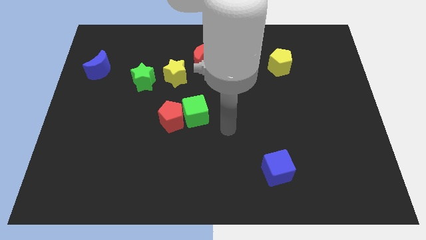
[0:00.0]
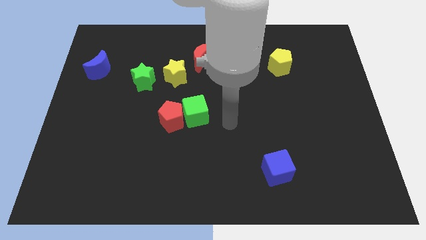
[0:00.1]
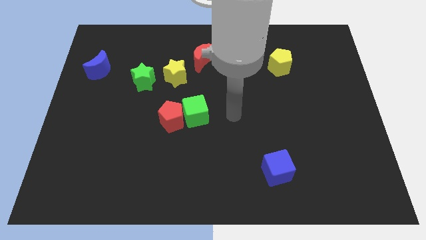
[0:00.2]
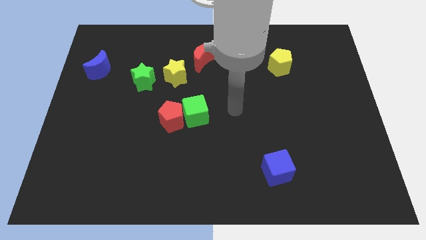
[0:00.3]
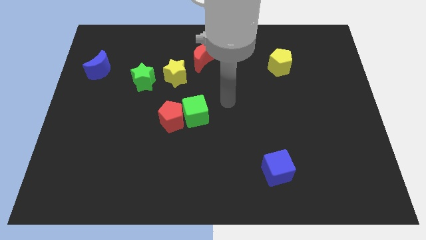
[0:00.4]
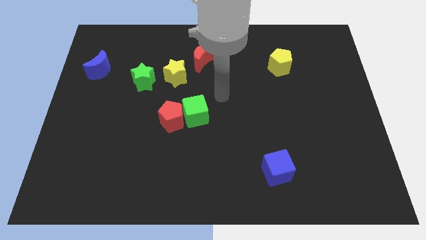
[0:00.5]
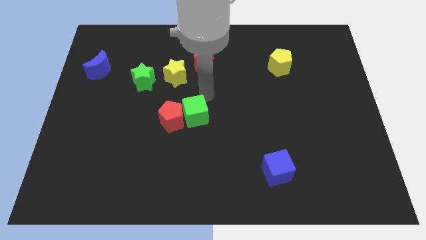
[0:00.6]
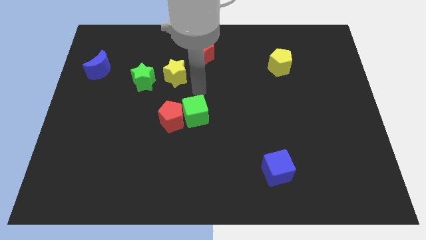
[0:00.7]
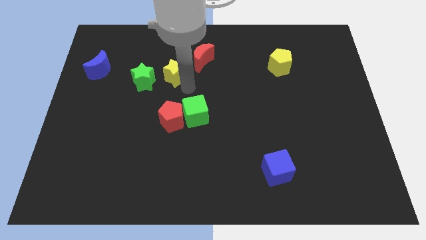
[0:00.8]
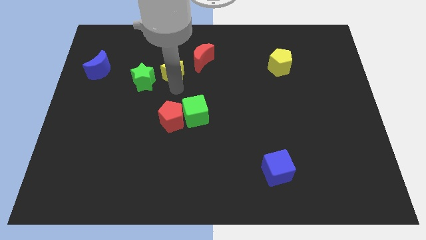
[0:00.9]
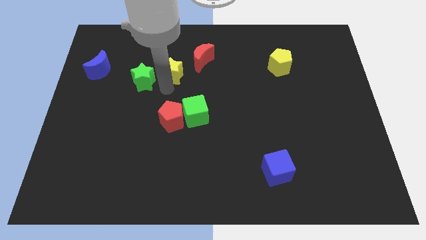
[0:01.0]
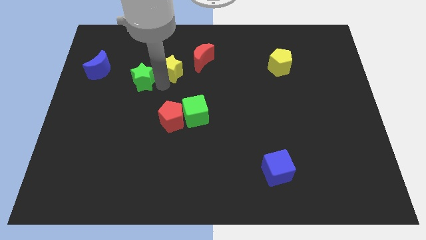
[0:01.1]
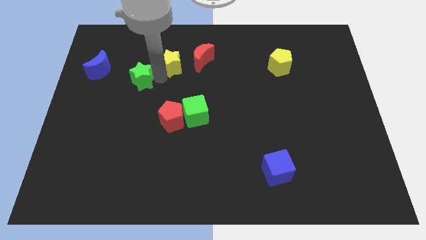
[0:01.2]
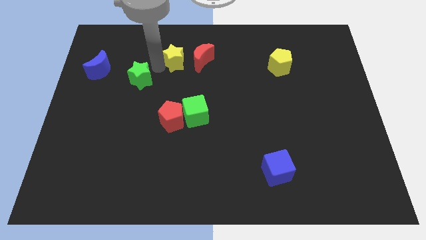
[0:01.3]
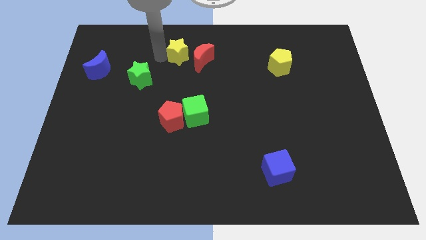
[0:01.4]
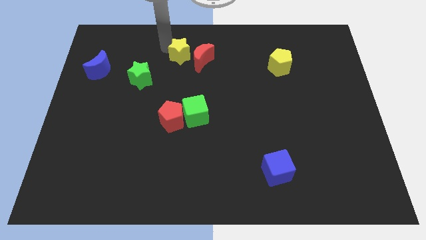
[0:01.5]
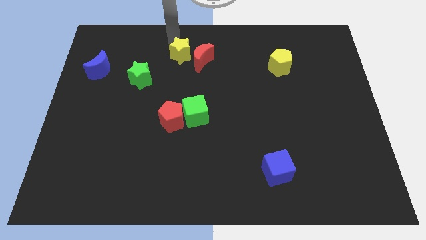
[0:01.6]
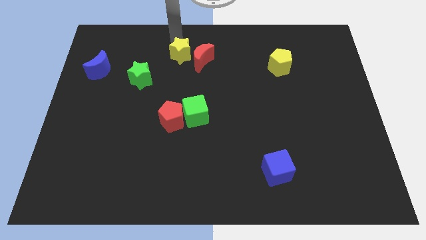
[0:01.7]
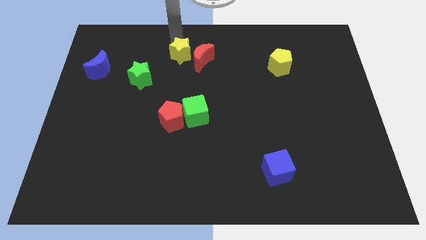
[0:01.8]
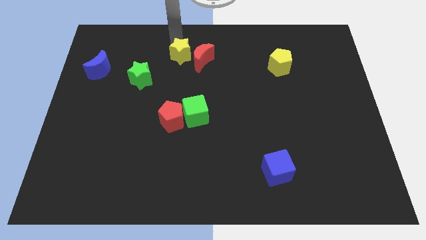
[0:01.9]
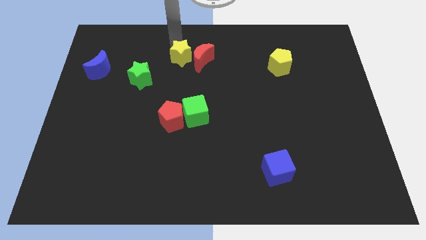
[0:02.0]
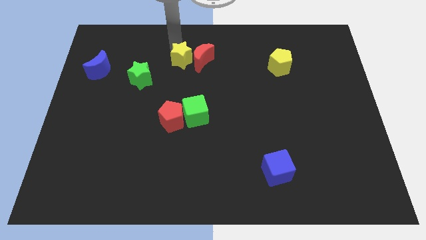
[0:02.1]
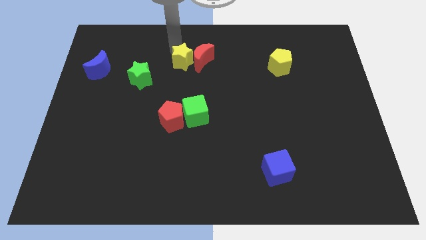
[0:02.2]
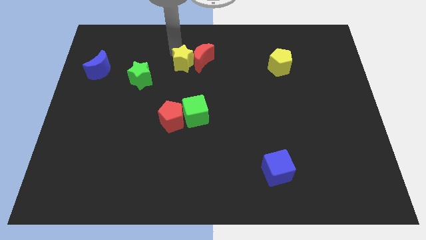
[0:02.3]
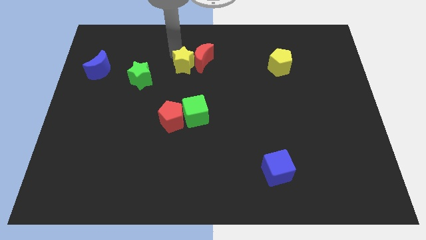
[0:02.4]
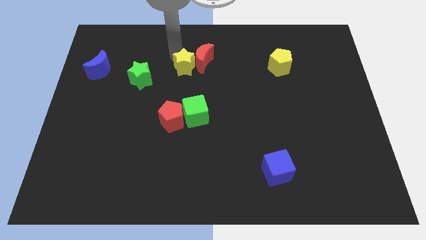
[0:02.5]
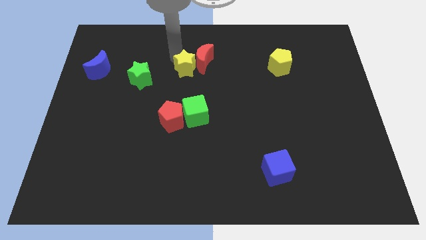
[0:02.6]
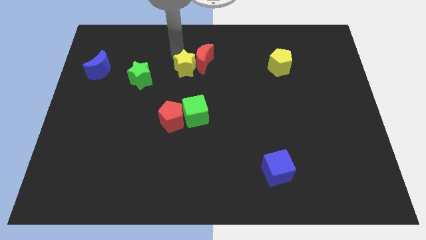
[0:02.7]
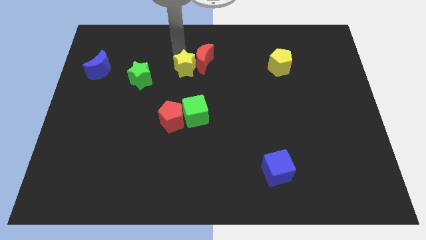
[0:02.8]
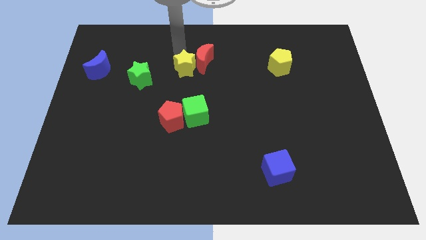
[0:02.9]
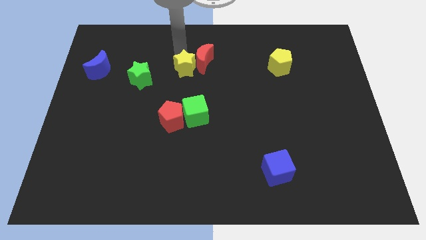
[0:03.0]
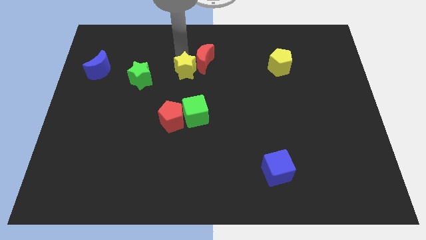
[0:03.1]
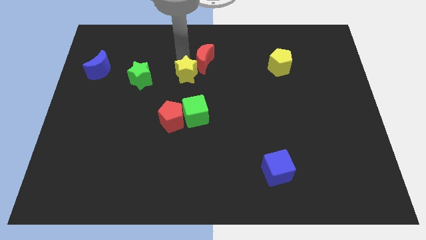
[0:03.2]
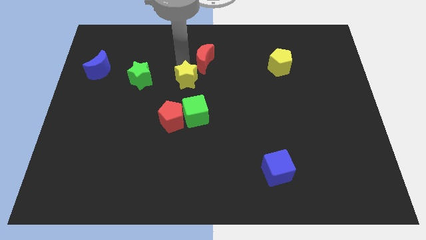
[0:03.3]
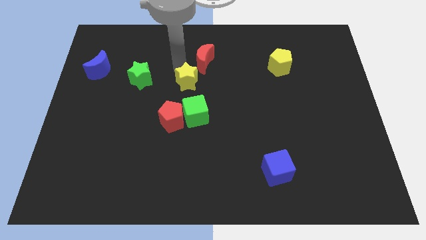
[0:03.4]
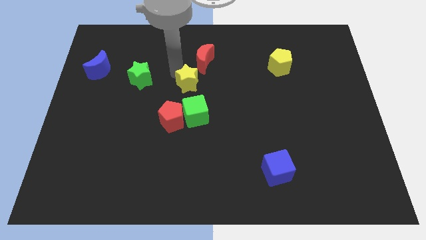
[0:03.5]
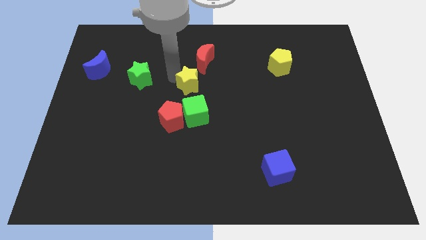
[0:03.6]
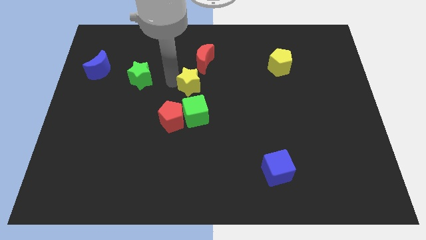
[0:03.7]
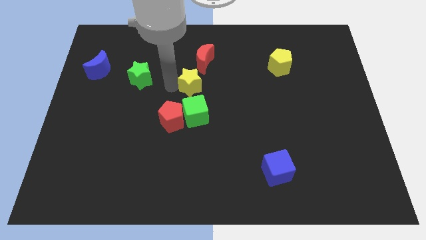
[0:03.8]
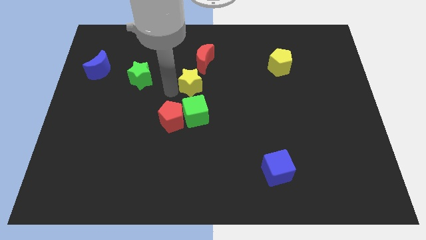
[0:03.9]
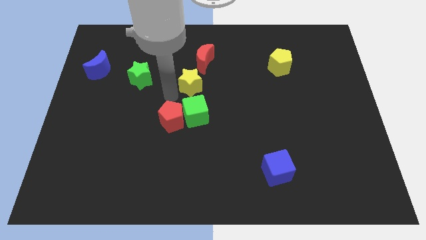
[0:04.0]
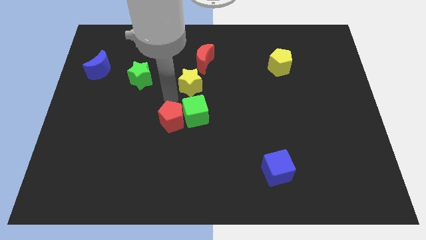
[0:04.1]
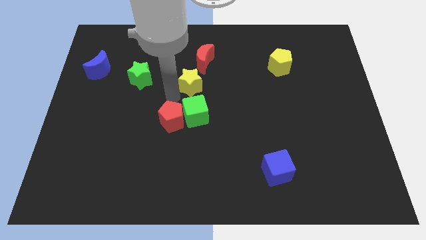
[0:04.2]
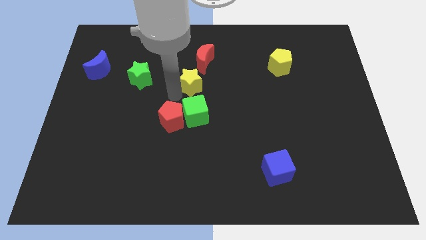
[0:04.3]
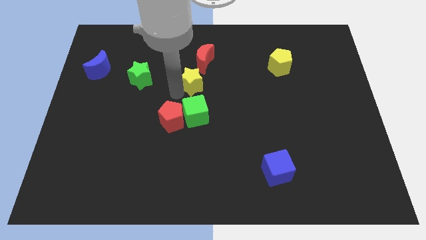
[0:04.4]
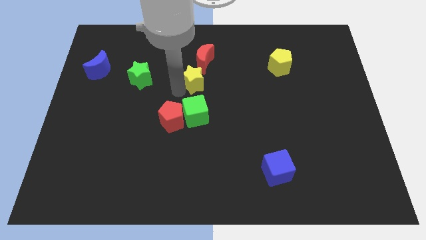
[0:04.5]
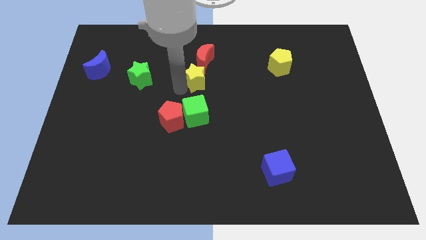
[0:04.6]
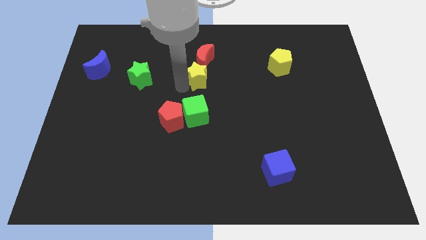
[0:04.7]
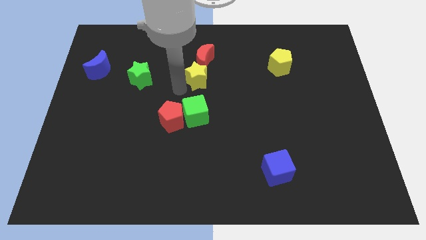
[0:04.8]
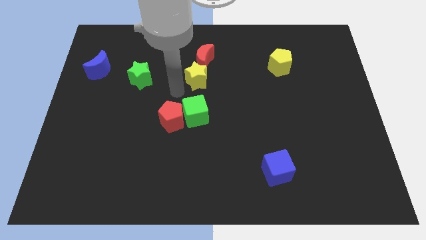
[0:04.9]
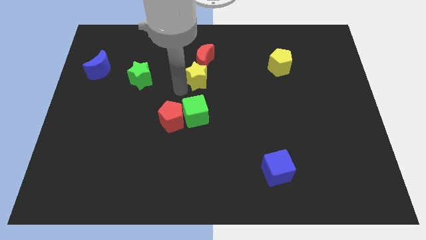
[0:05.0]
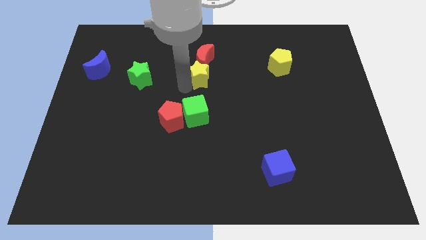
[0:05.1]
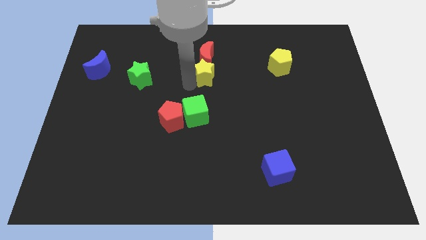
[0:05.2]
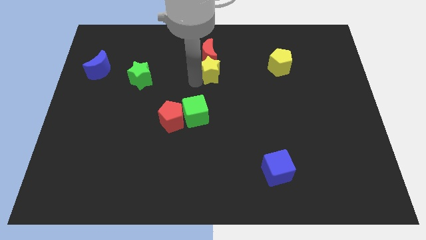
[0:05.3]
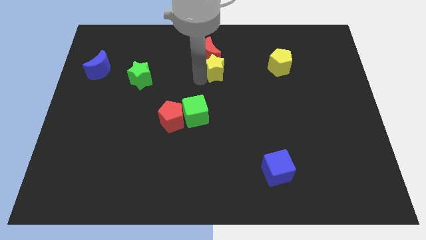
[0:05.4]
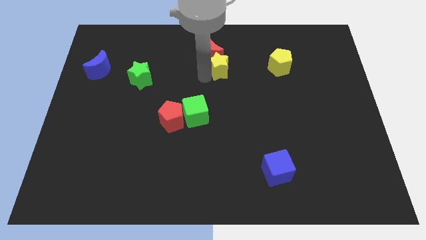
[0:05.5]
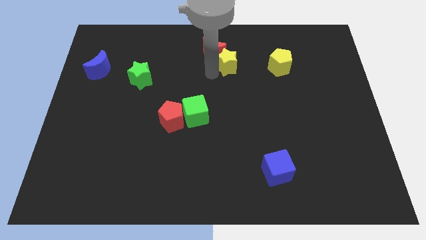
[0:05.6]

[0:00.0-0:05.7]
slide the yellow star to the right of the red moon

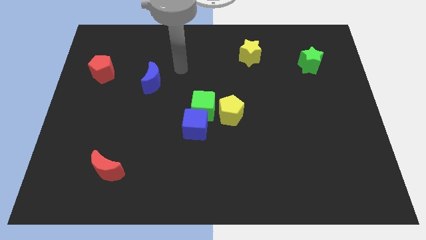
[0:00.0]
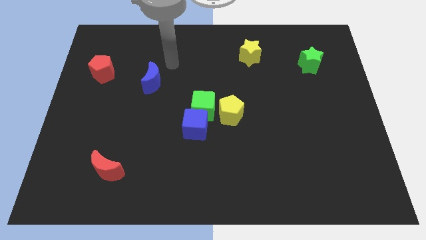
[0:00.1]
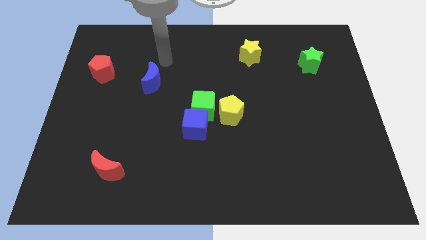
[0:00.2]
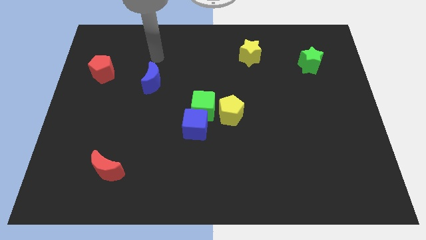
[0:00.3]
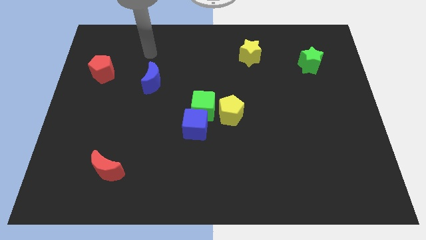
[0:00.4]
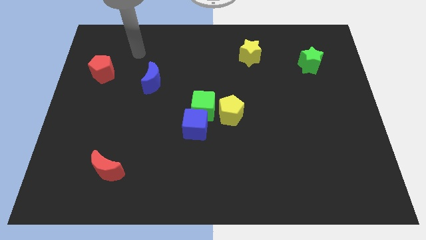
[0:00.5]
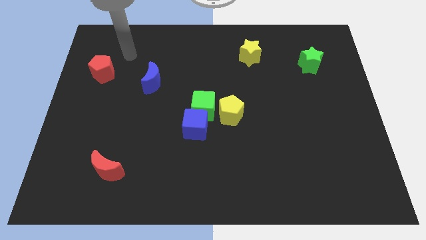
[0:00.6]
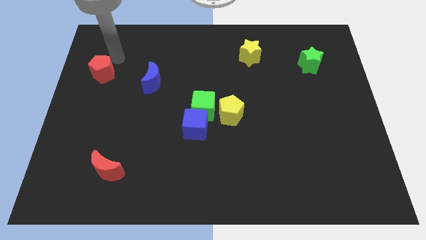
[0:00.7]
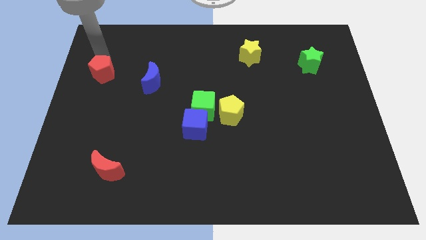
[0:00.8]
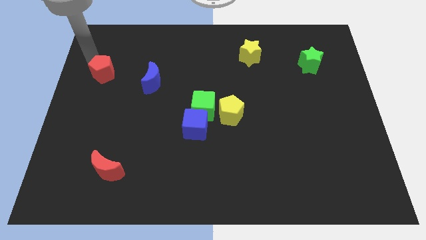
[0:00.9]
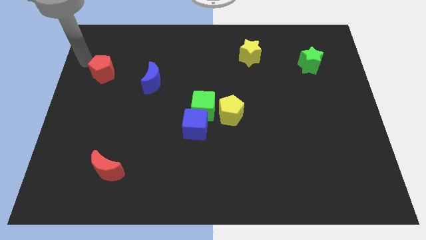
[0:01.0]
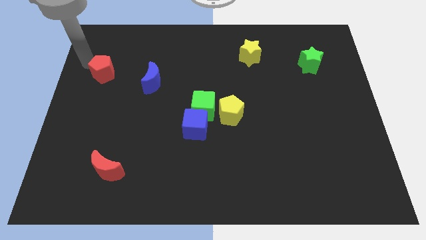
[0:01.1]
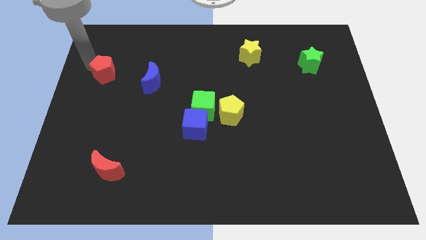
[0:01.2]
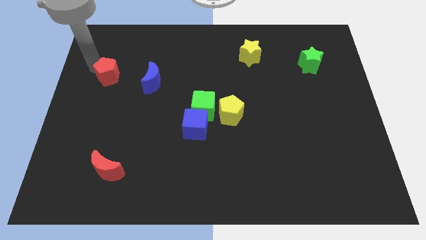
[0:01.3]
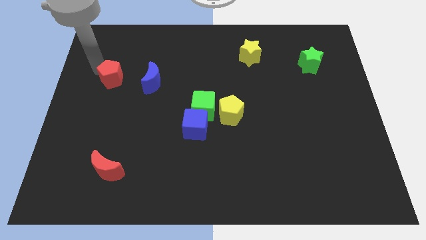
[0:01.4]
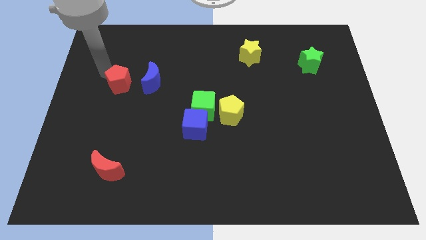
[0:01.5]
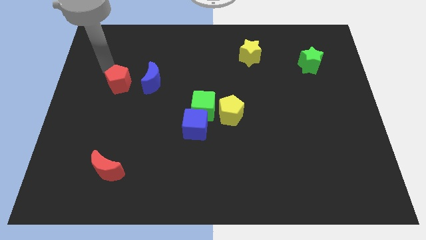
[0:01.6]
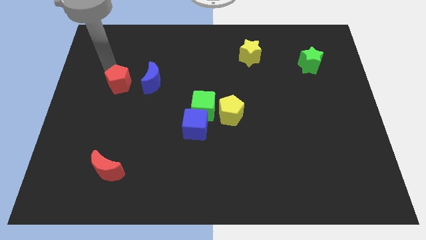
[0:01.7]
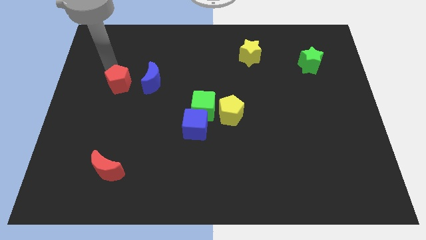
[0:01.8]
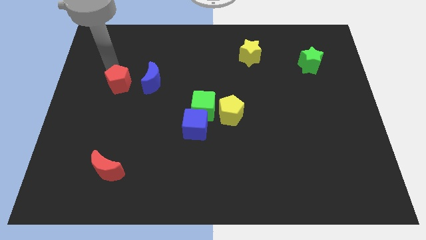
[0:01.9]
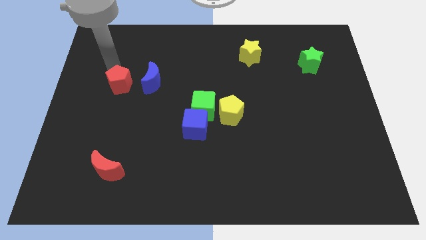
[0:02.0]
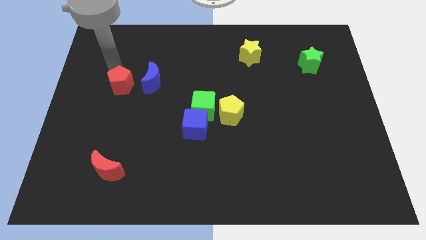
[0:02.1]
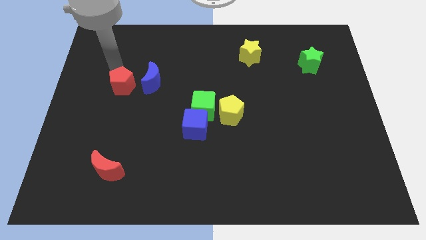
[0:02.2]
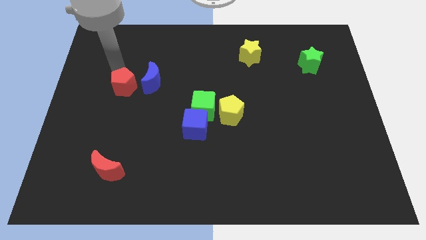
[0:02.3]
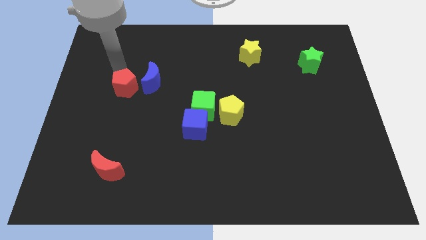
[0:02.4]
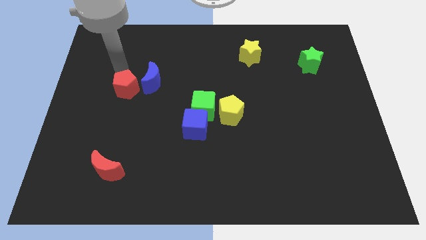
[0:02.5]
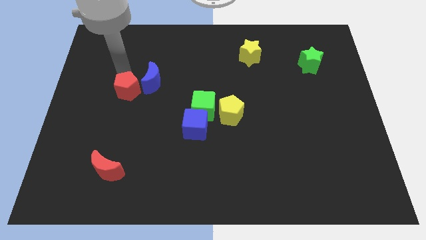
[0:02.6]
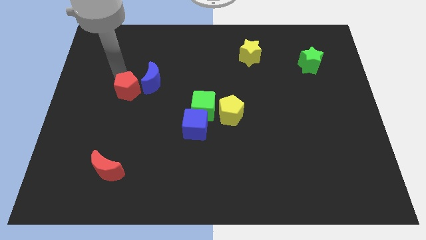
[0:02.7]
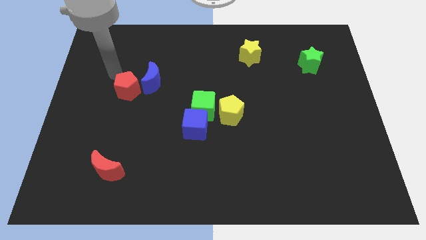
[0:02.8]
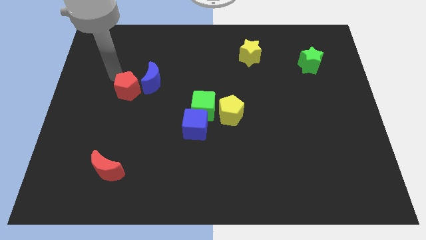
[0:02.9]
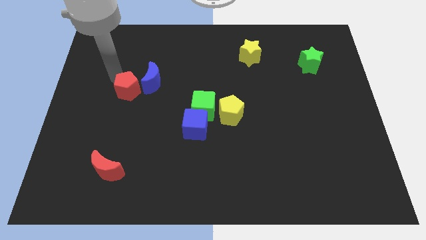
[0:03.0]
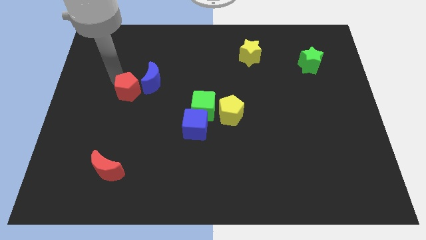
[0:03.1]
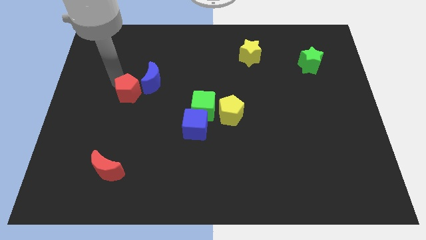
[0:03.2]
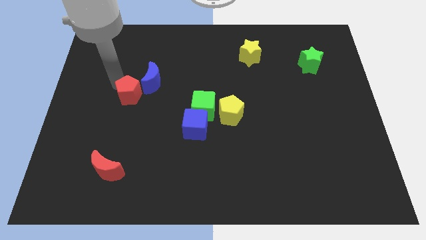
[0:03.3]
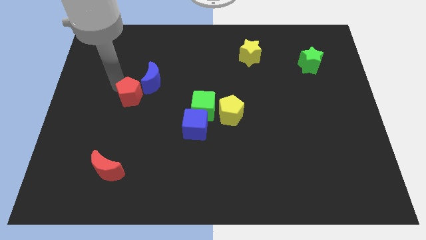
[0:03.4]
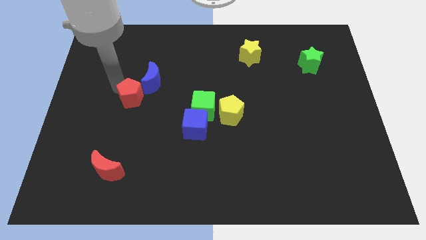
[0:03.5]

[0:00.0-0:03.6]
put the red pentagon to the bottom side of the blue moon
